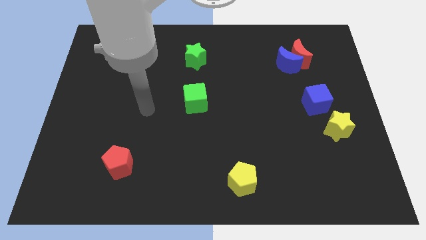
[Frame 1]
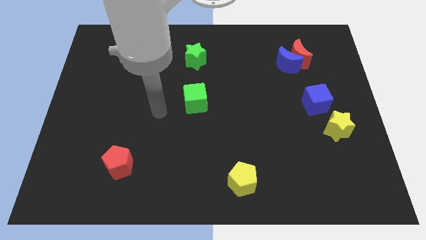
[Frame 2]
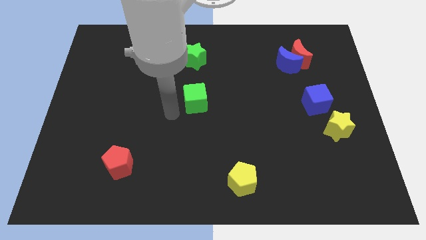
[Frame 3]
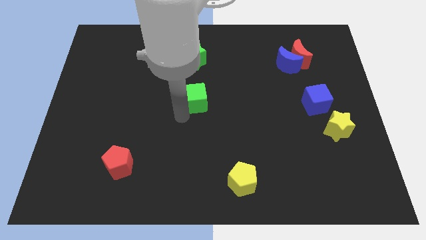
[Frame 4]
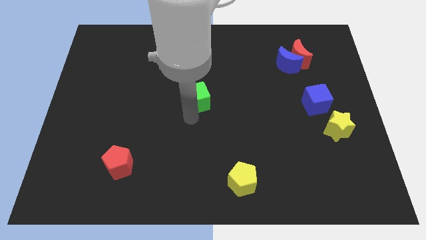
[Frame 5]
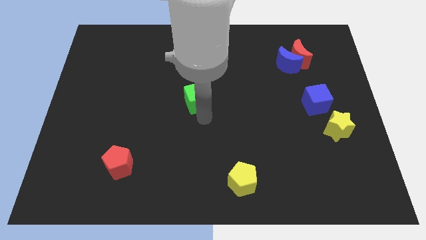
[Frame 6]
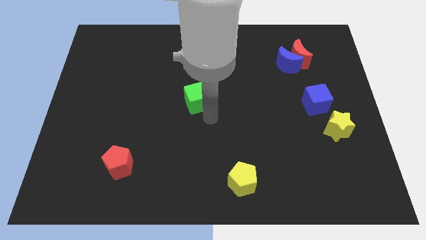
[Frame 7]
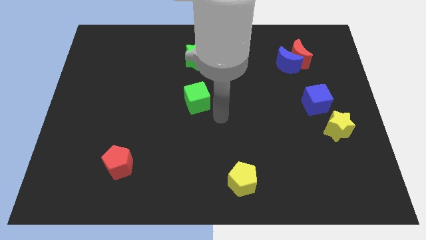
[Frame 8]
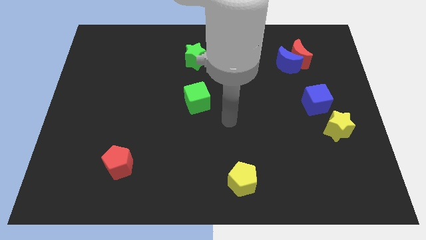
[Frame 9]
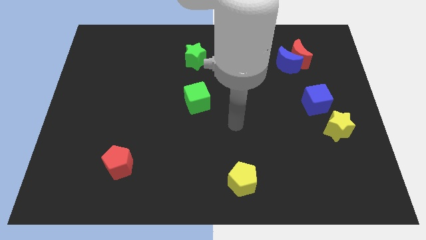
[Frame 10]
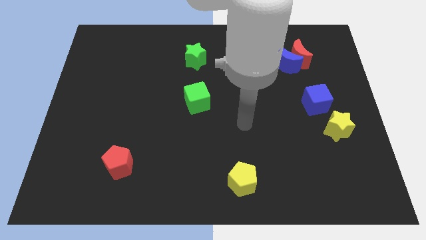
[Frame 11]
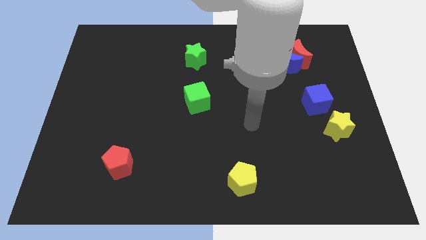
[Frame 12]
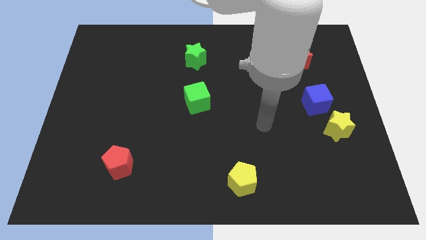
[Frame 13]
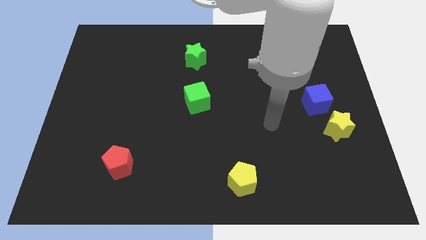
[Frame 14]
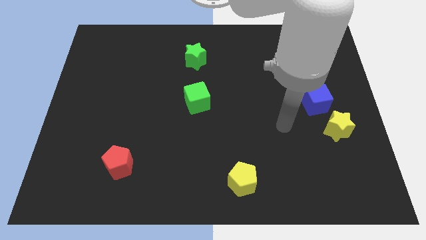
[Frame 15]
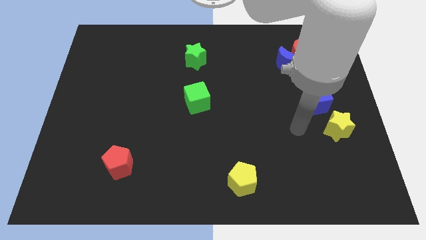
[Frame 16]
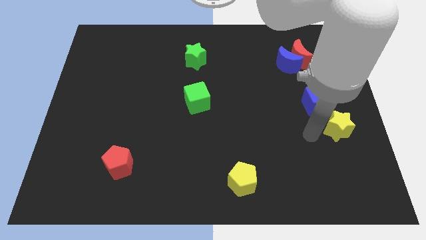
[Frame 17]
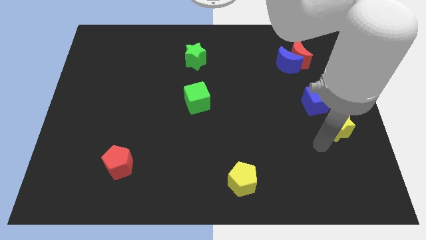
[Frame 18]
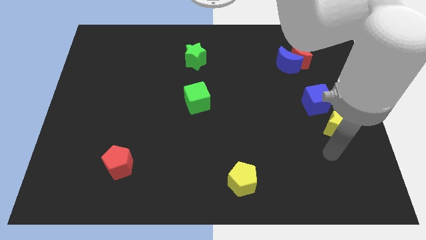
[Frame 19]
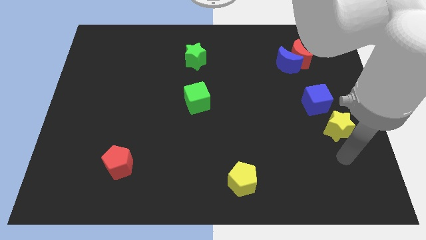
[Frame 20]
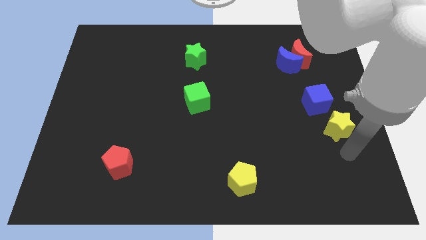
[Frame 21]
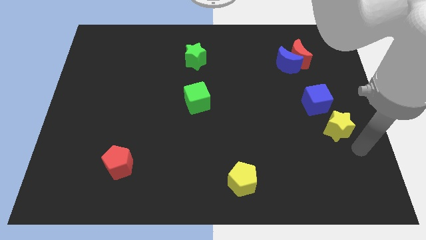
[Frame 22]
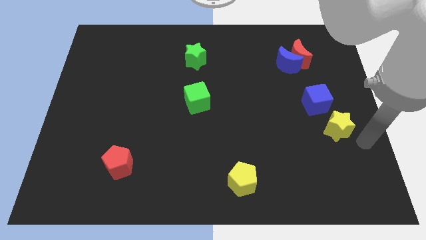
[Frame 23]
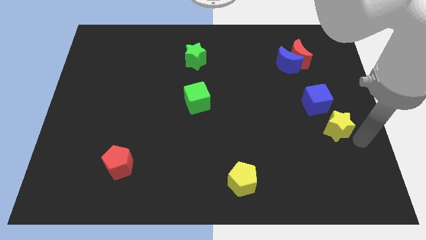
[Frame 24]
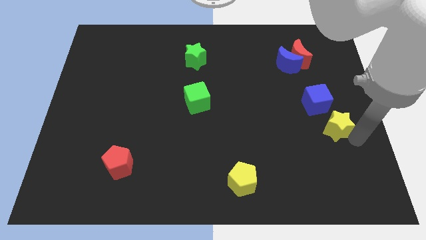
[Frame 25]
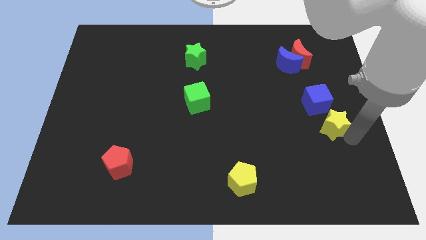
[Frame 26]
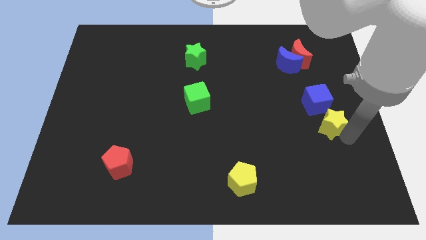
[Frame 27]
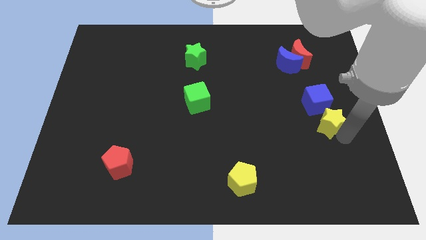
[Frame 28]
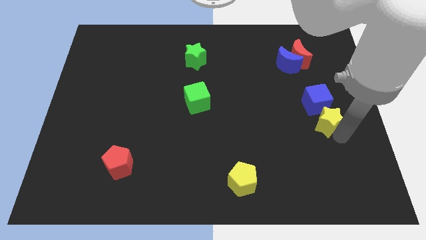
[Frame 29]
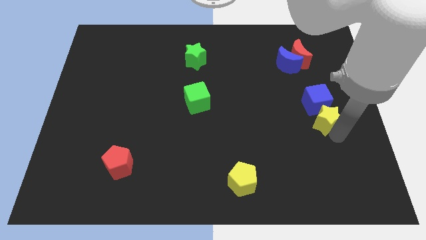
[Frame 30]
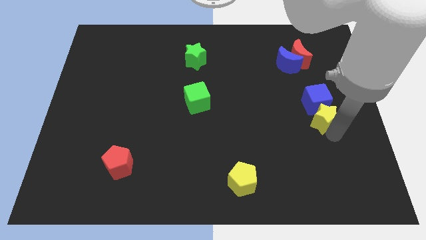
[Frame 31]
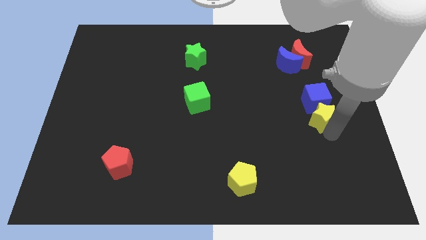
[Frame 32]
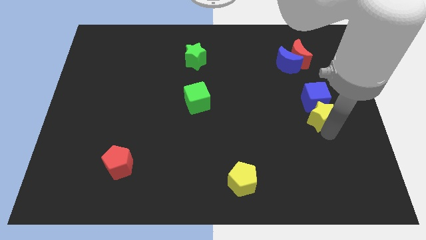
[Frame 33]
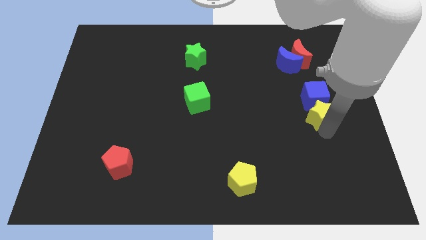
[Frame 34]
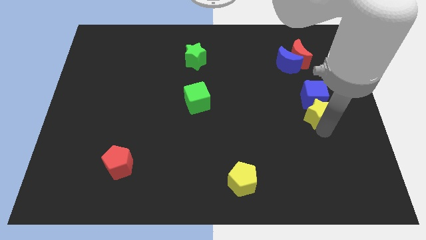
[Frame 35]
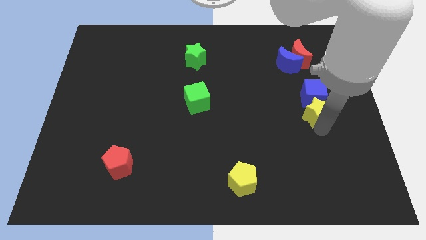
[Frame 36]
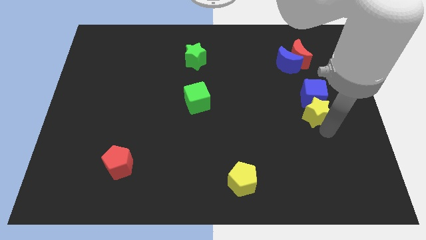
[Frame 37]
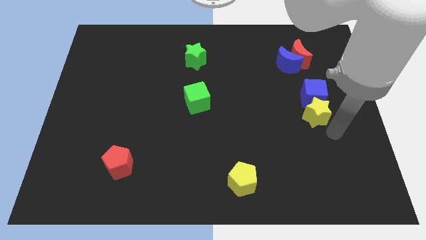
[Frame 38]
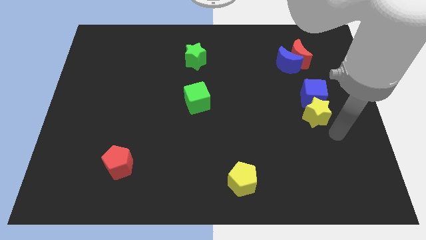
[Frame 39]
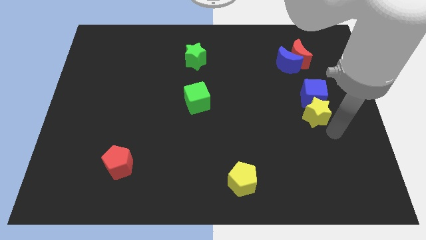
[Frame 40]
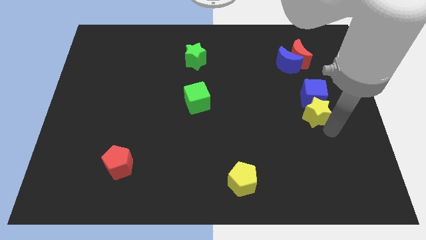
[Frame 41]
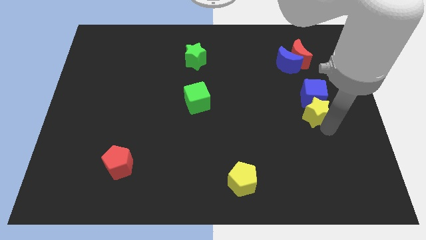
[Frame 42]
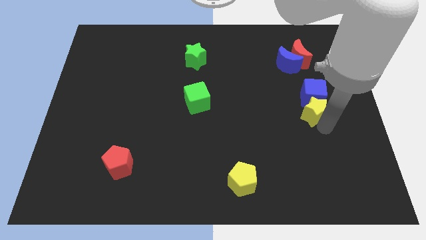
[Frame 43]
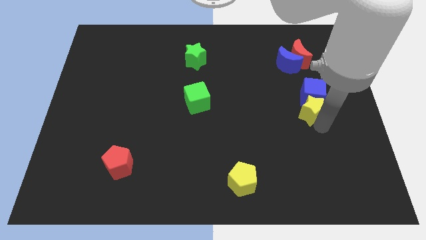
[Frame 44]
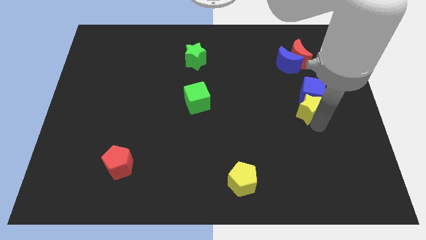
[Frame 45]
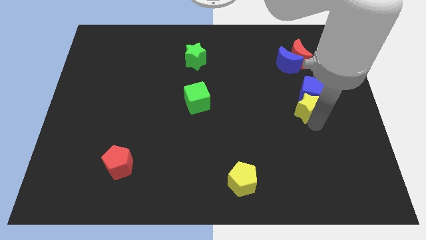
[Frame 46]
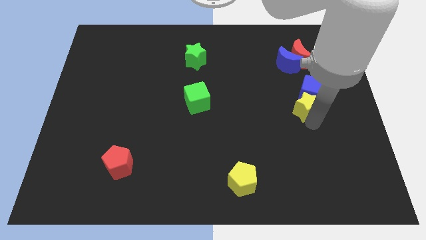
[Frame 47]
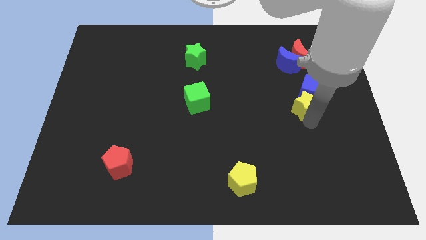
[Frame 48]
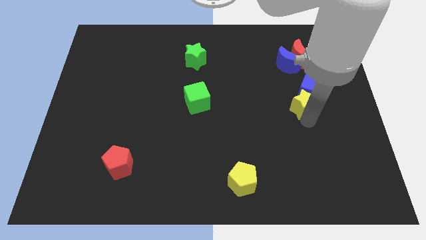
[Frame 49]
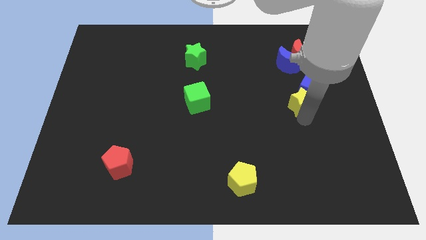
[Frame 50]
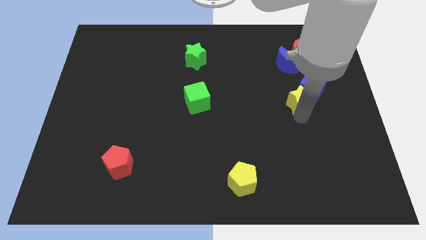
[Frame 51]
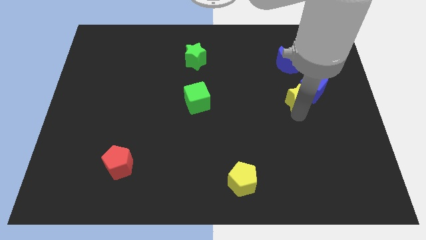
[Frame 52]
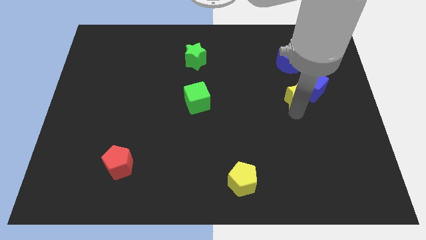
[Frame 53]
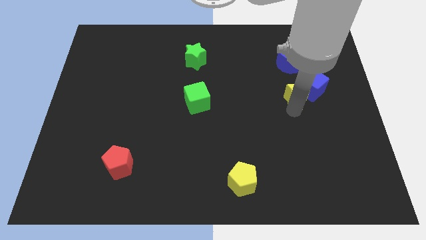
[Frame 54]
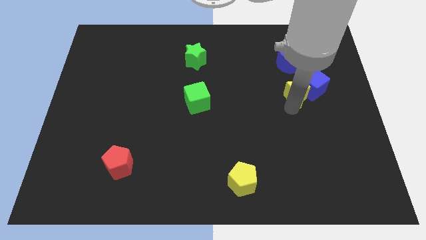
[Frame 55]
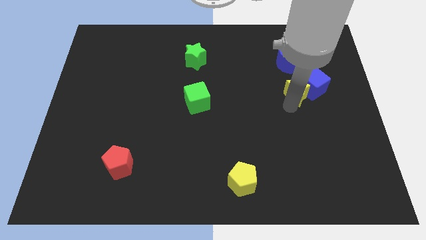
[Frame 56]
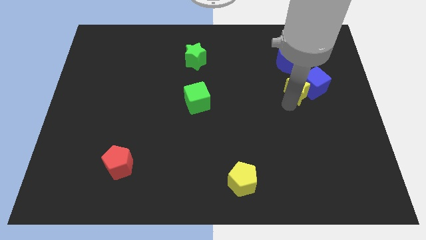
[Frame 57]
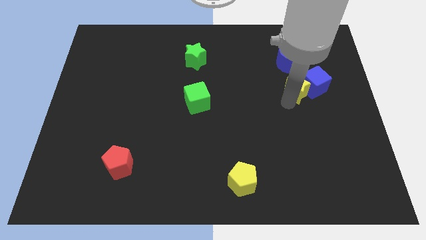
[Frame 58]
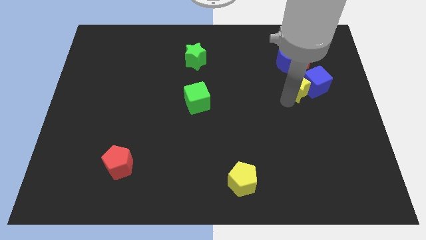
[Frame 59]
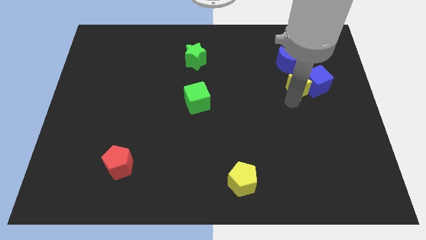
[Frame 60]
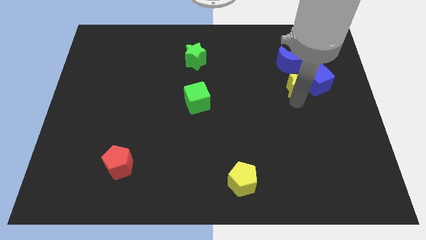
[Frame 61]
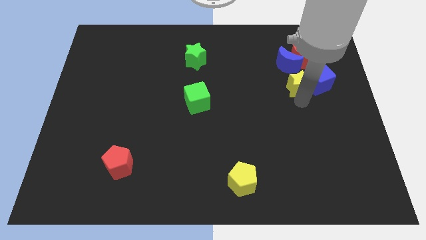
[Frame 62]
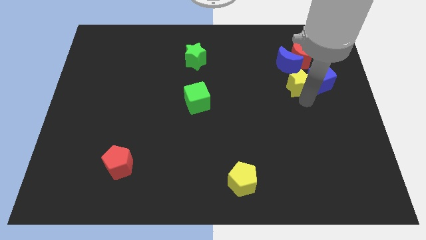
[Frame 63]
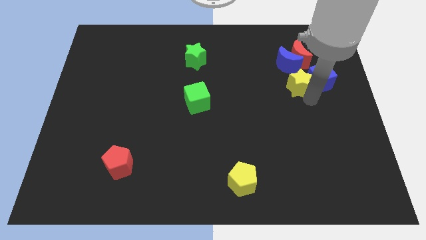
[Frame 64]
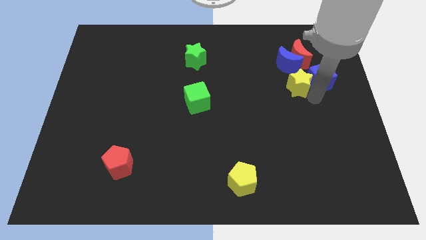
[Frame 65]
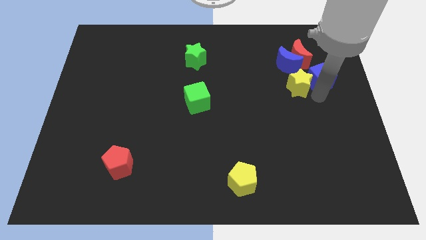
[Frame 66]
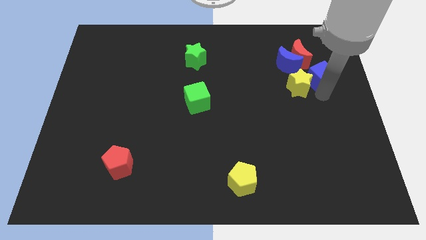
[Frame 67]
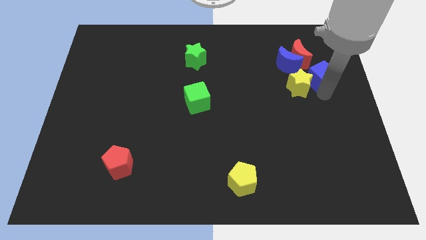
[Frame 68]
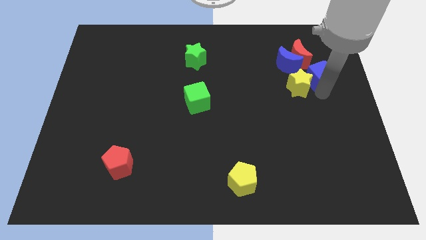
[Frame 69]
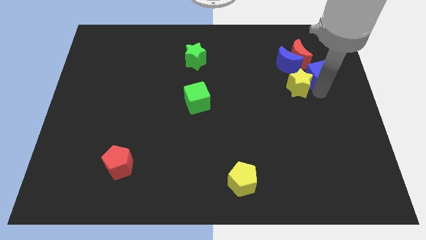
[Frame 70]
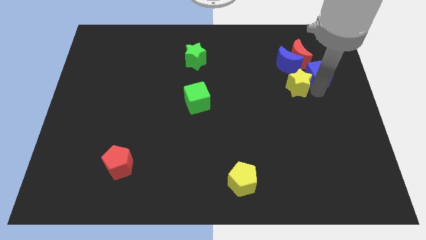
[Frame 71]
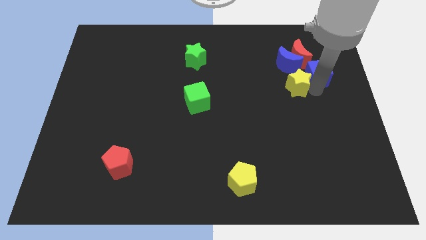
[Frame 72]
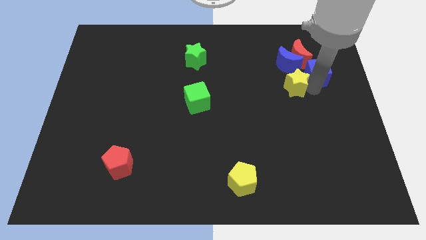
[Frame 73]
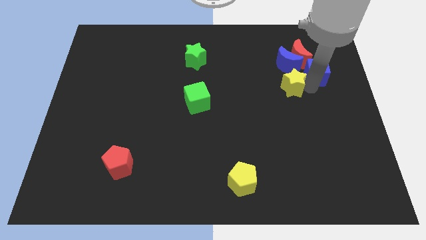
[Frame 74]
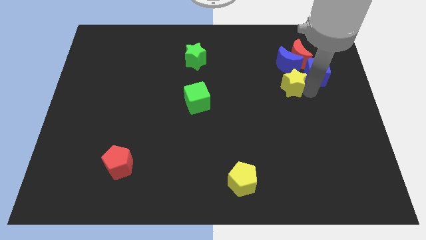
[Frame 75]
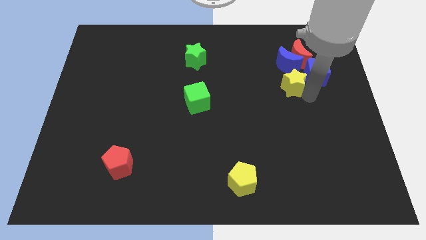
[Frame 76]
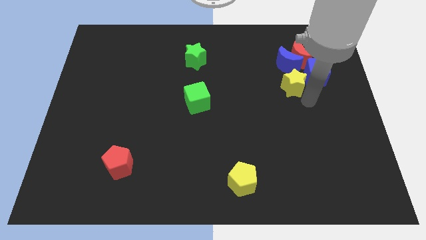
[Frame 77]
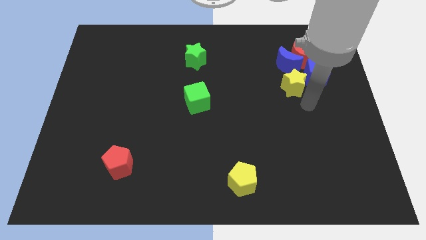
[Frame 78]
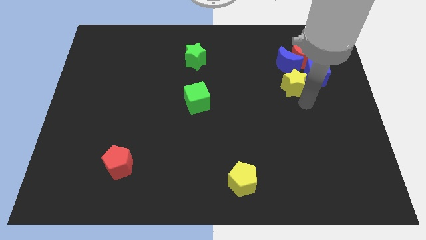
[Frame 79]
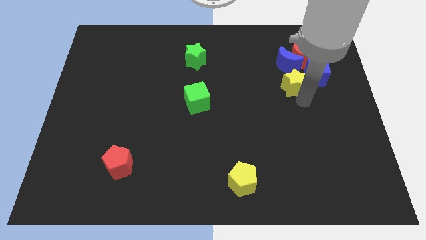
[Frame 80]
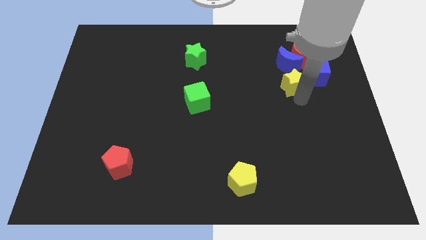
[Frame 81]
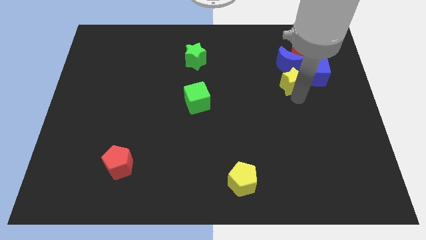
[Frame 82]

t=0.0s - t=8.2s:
push the yellow star to the bottom left of the red moon
